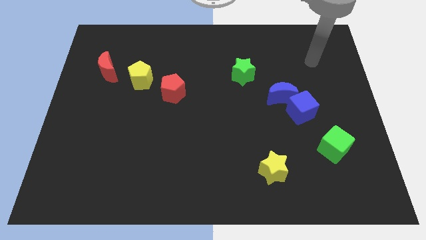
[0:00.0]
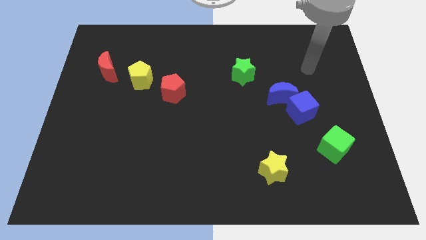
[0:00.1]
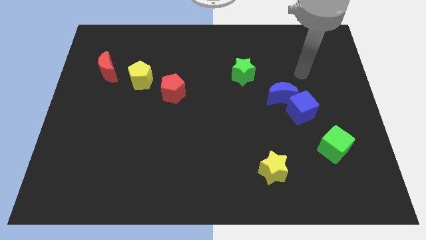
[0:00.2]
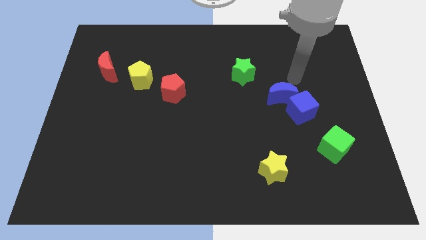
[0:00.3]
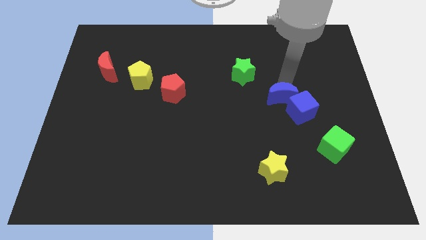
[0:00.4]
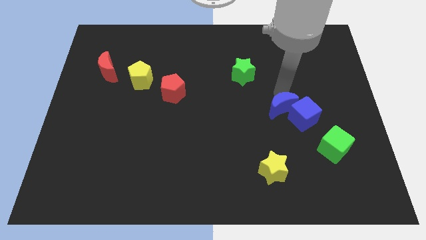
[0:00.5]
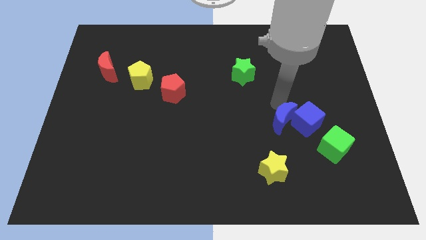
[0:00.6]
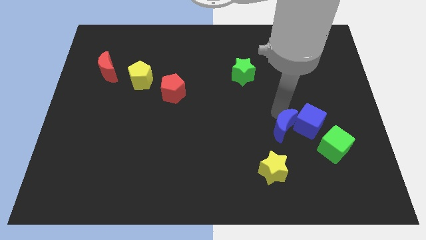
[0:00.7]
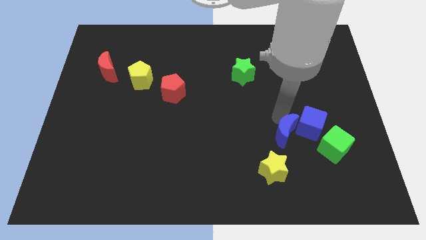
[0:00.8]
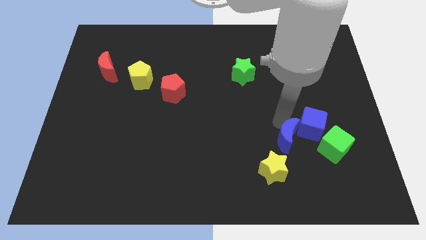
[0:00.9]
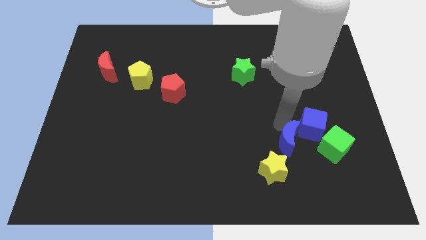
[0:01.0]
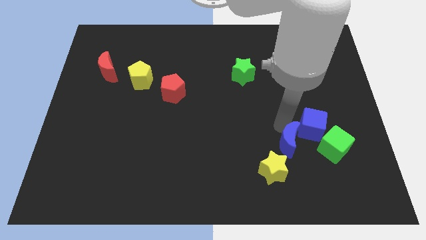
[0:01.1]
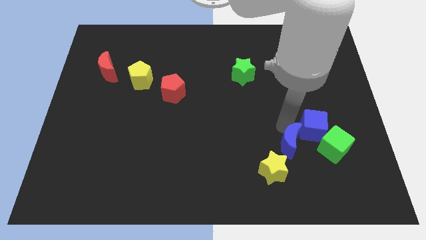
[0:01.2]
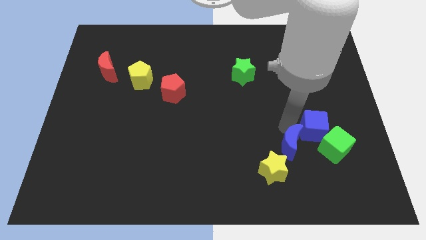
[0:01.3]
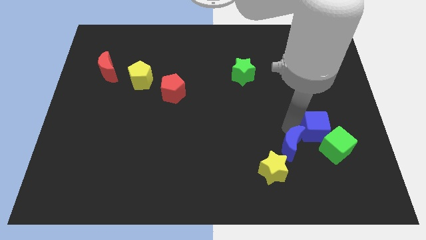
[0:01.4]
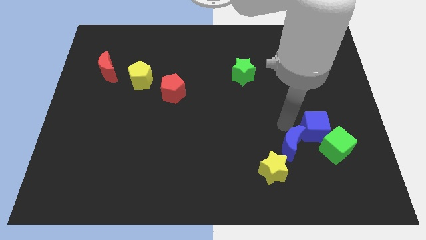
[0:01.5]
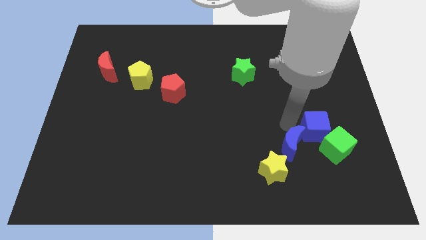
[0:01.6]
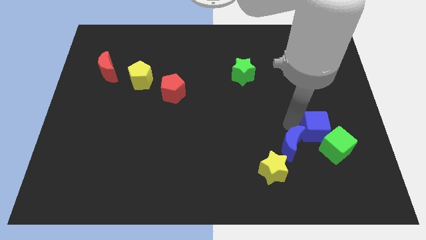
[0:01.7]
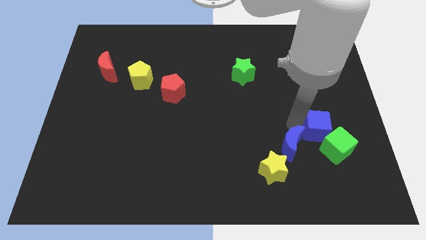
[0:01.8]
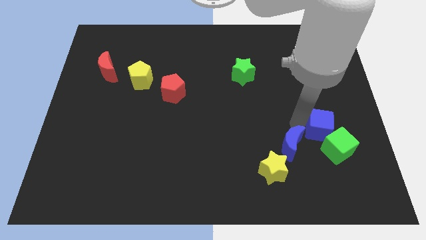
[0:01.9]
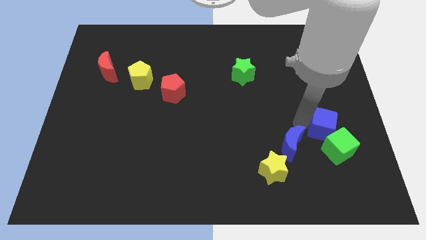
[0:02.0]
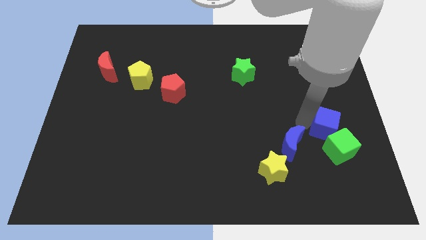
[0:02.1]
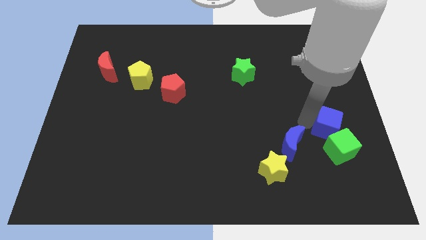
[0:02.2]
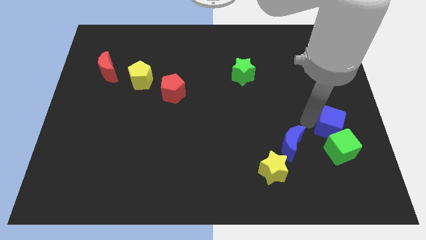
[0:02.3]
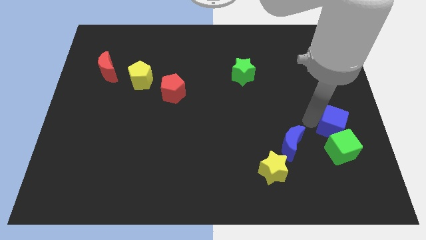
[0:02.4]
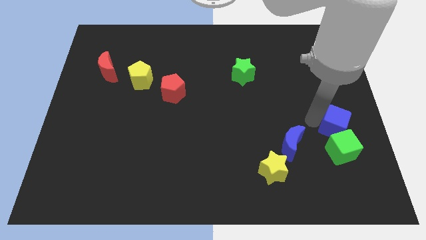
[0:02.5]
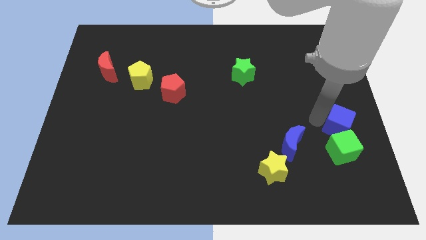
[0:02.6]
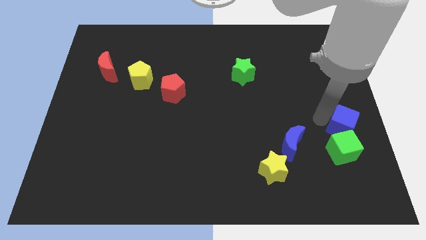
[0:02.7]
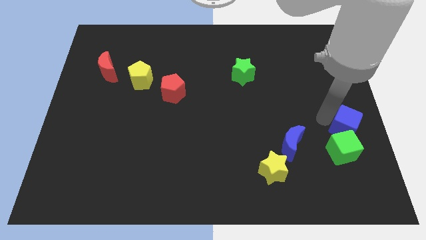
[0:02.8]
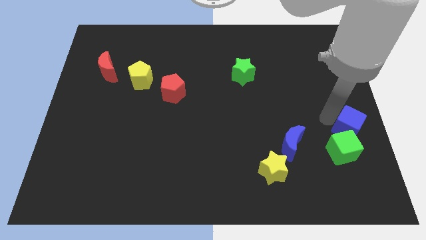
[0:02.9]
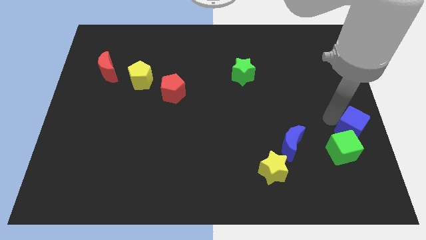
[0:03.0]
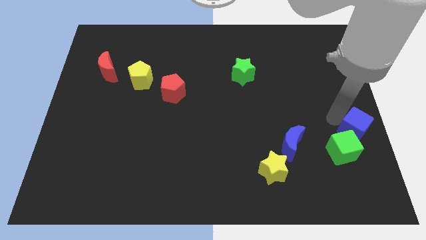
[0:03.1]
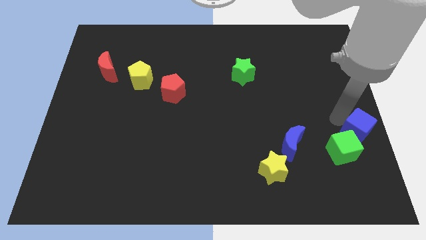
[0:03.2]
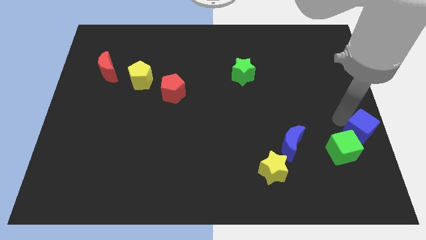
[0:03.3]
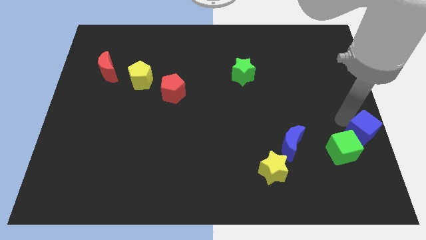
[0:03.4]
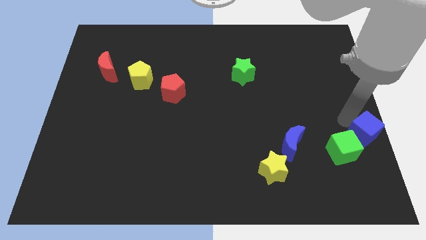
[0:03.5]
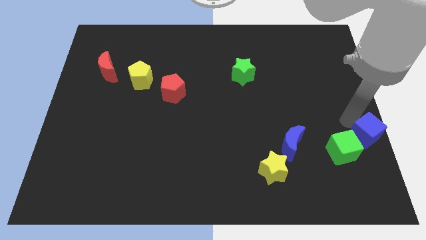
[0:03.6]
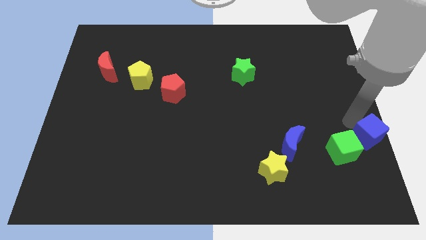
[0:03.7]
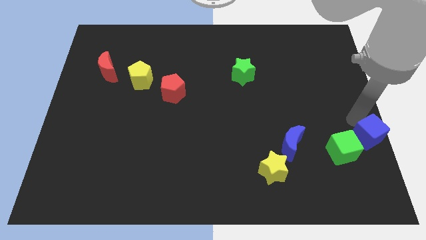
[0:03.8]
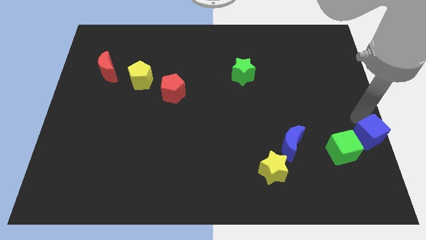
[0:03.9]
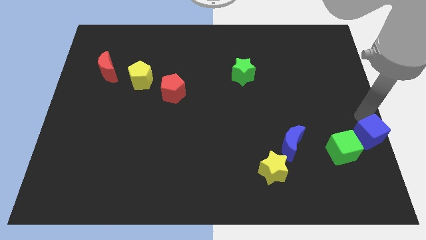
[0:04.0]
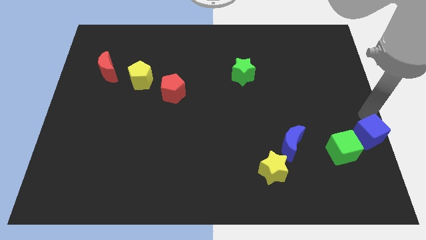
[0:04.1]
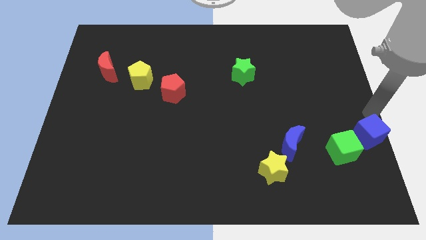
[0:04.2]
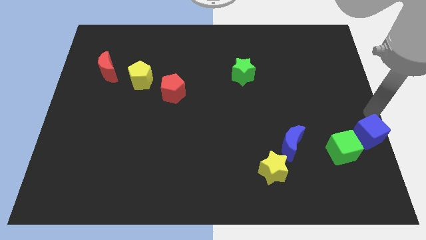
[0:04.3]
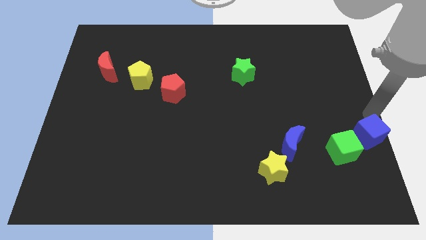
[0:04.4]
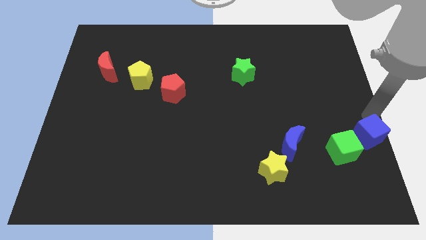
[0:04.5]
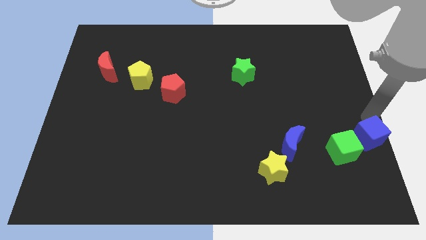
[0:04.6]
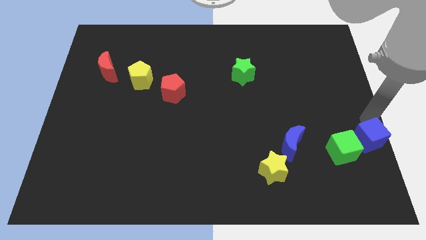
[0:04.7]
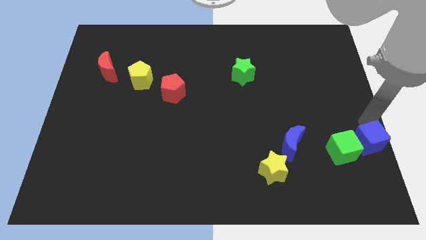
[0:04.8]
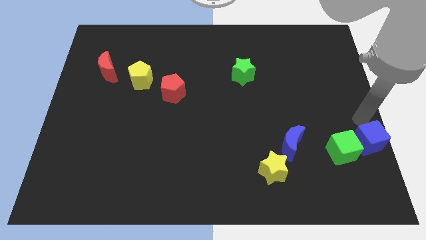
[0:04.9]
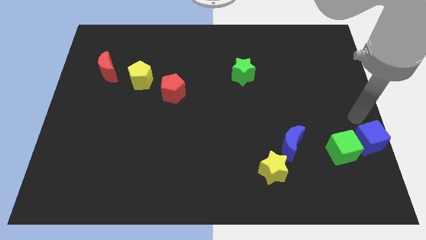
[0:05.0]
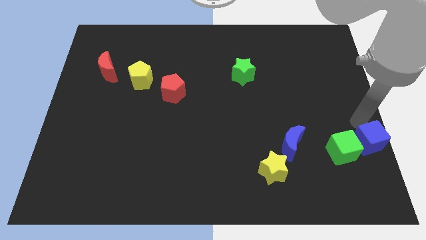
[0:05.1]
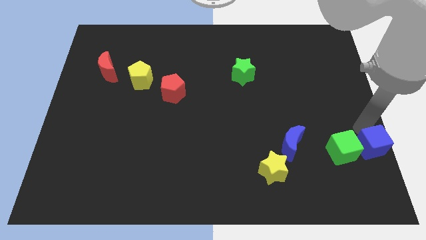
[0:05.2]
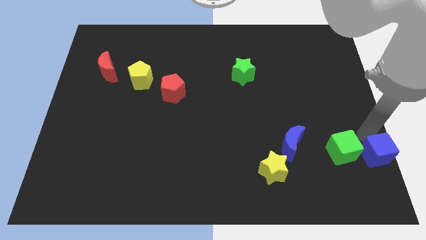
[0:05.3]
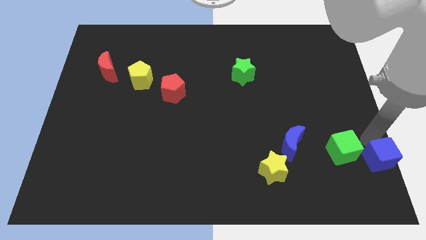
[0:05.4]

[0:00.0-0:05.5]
slide the blue cube to the bottom right of the board
